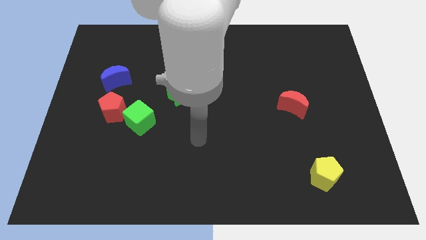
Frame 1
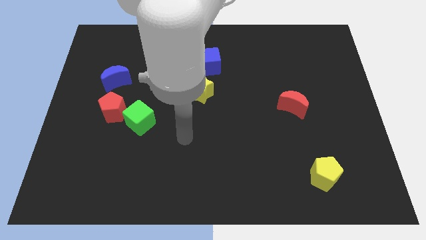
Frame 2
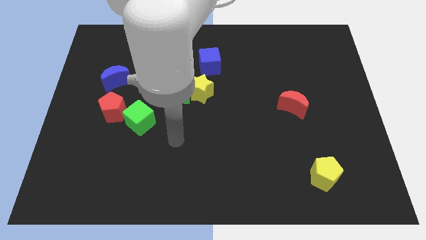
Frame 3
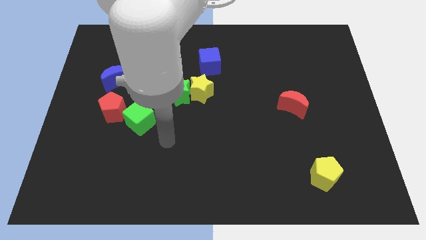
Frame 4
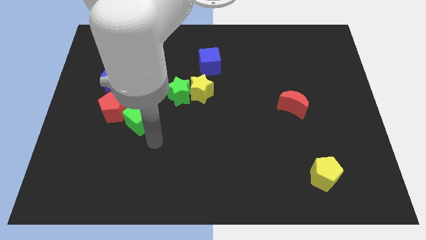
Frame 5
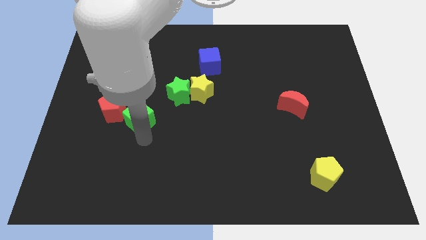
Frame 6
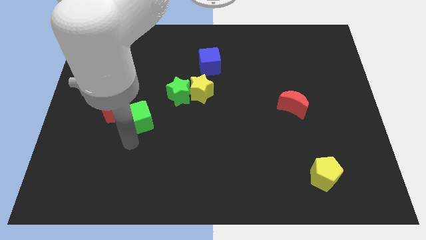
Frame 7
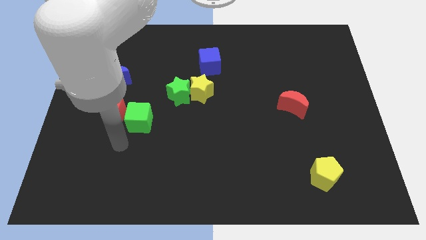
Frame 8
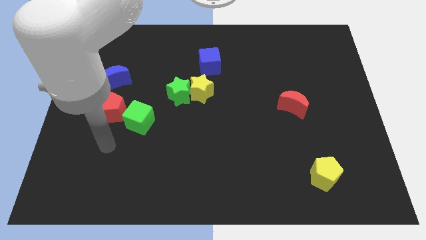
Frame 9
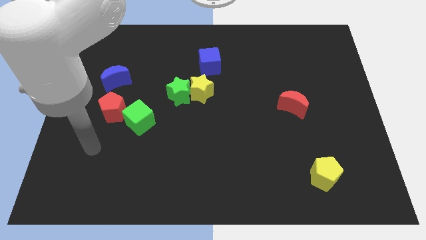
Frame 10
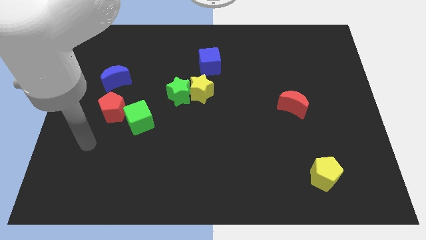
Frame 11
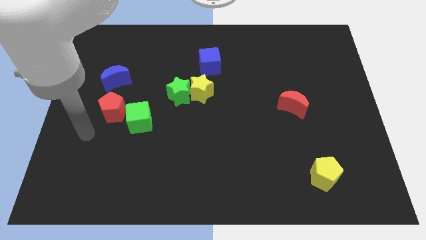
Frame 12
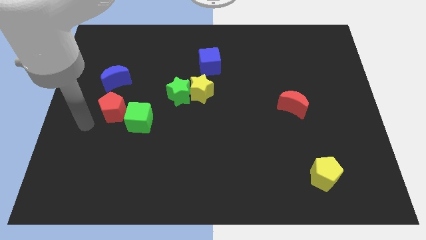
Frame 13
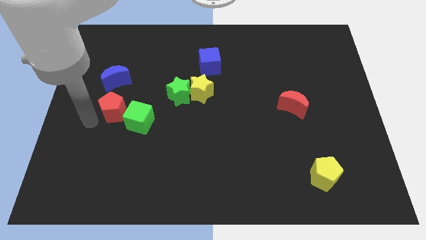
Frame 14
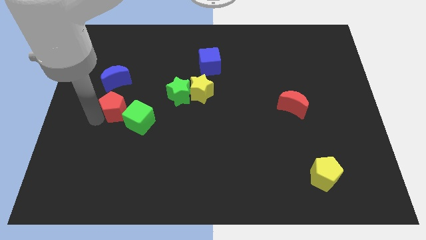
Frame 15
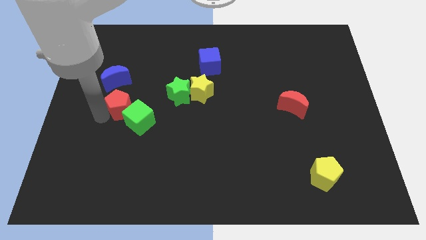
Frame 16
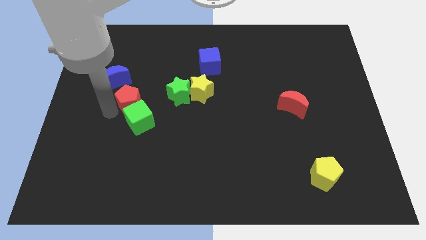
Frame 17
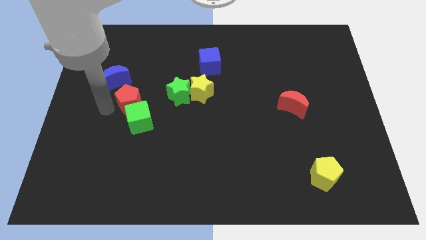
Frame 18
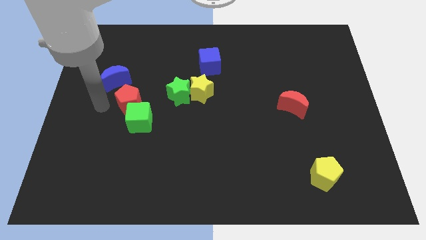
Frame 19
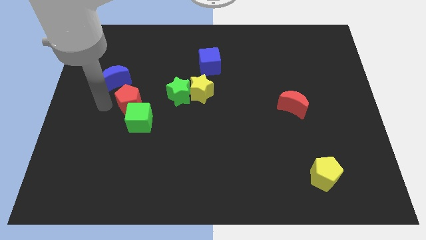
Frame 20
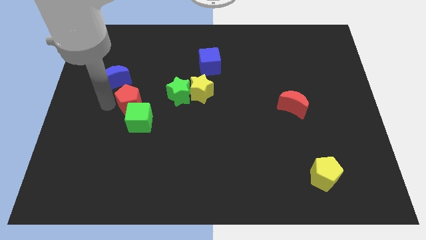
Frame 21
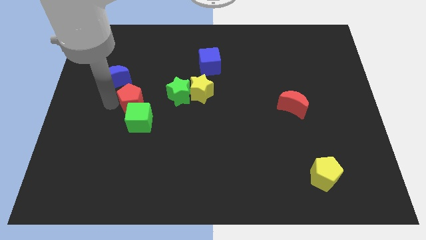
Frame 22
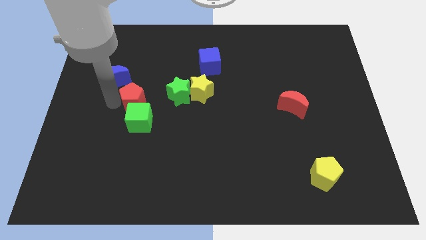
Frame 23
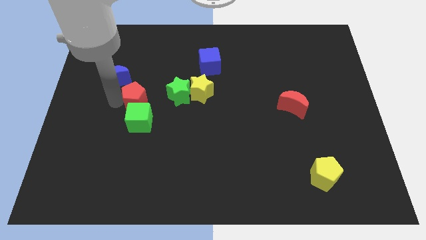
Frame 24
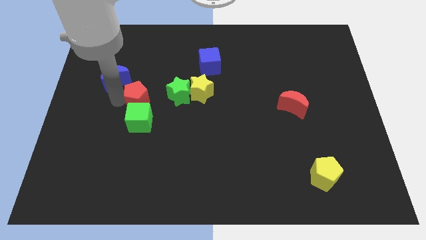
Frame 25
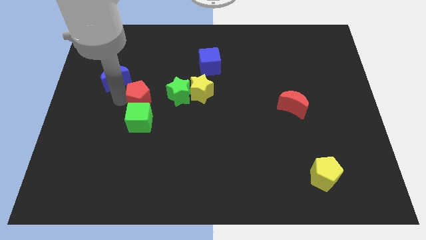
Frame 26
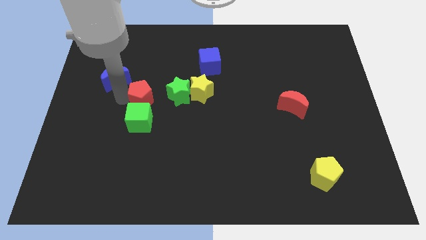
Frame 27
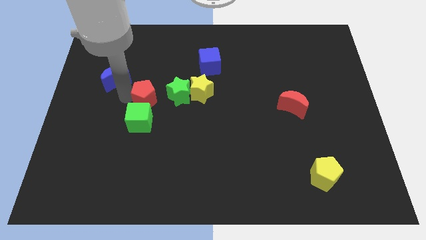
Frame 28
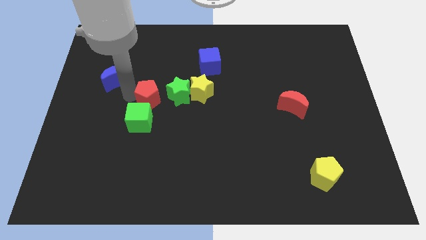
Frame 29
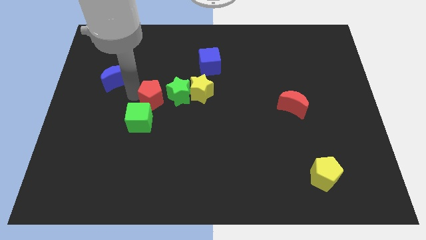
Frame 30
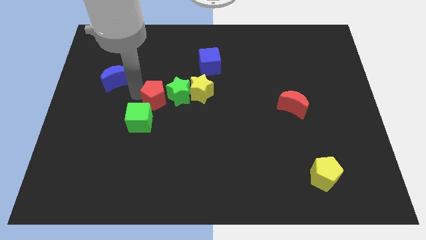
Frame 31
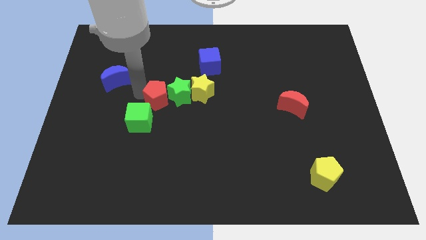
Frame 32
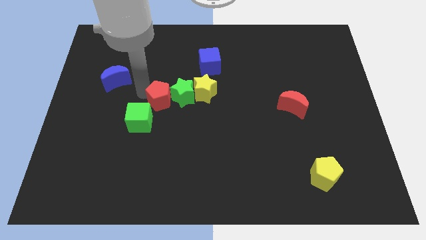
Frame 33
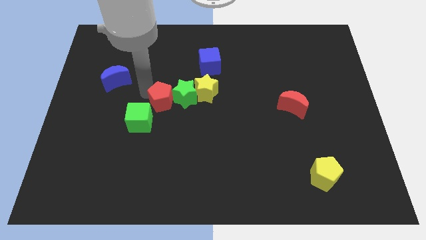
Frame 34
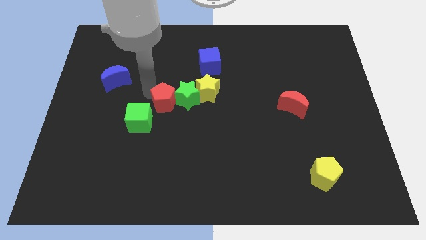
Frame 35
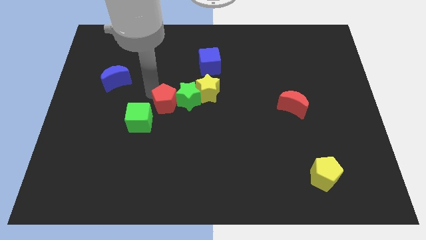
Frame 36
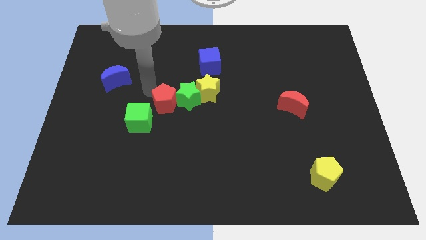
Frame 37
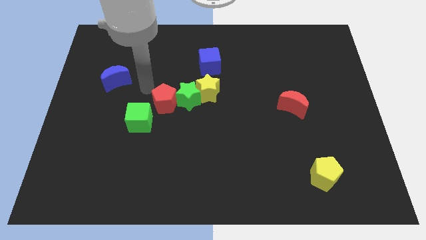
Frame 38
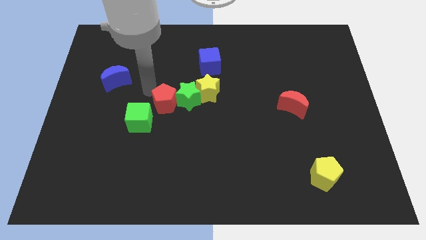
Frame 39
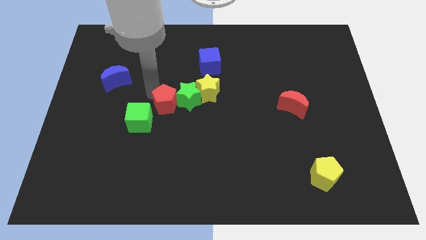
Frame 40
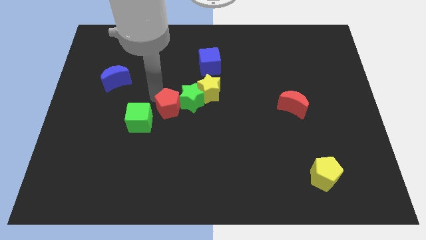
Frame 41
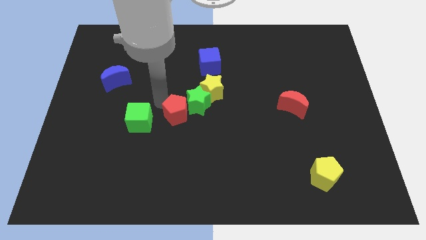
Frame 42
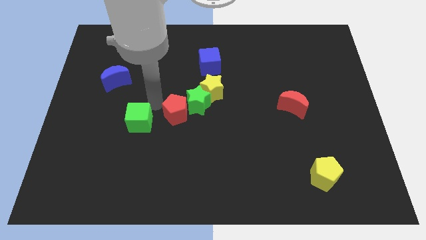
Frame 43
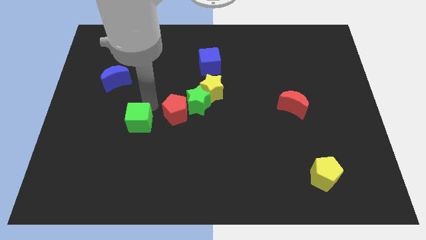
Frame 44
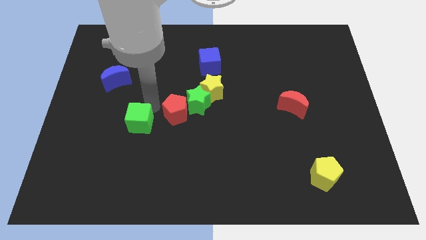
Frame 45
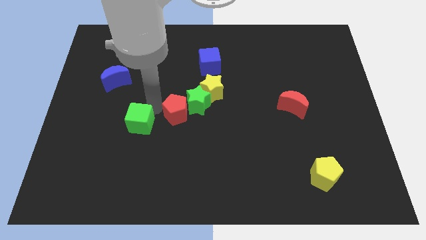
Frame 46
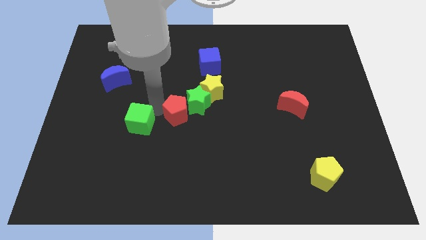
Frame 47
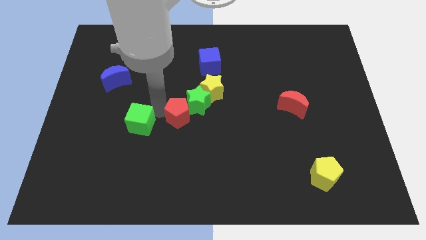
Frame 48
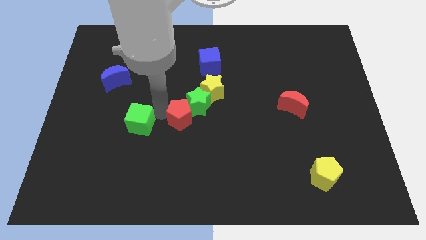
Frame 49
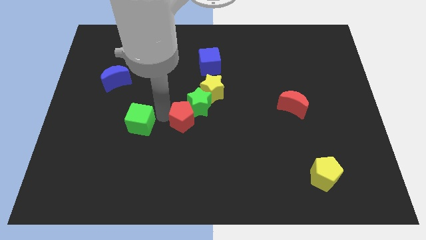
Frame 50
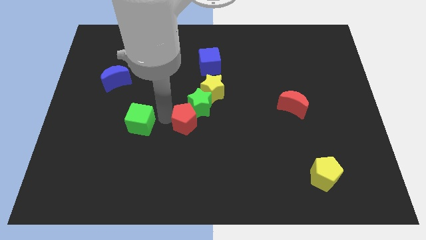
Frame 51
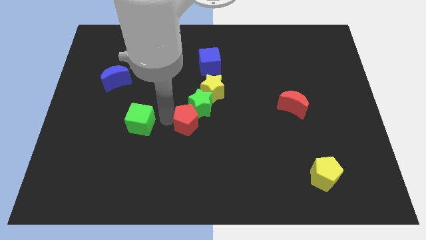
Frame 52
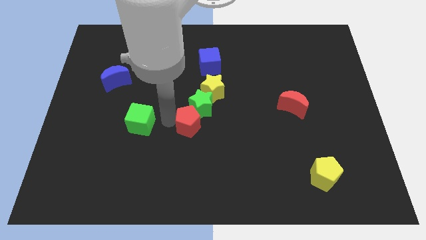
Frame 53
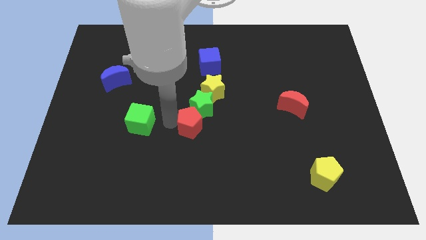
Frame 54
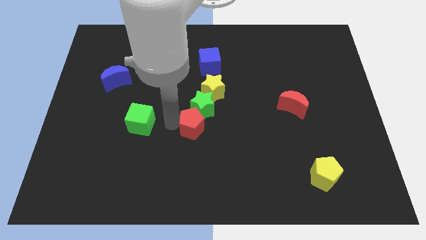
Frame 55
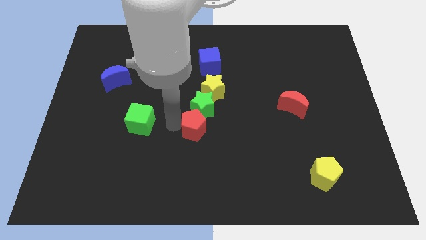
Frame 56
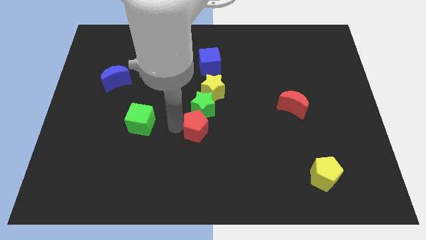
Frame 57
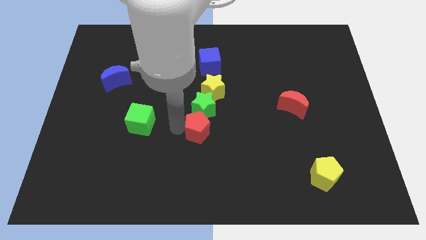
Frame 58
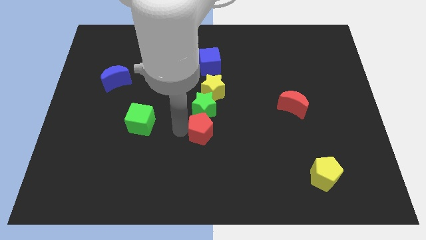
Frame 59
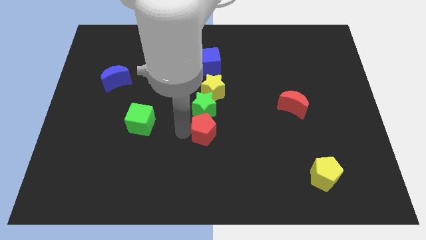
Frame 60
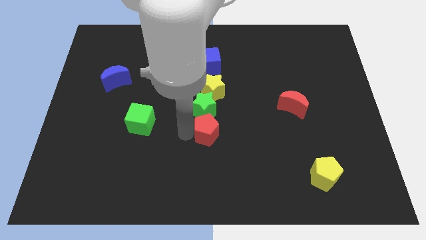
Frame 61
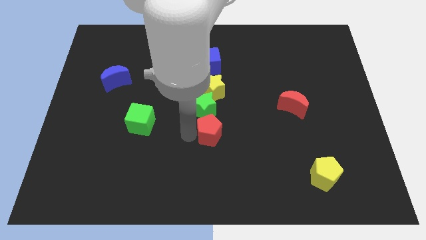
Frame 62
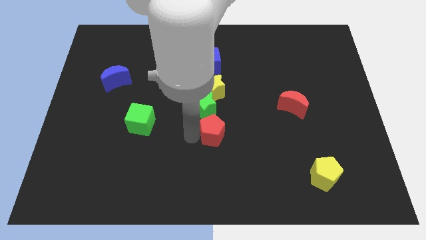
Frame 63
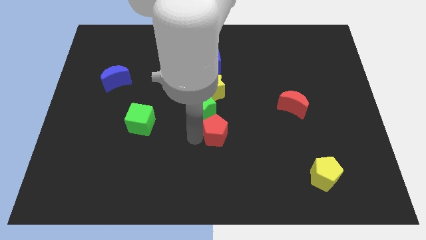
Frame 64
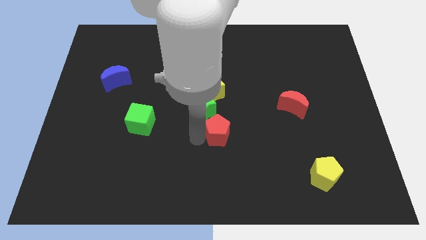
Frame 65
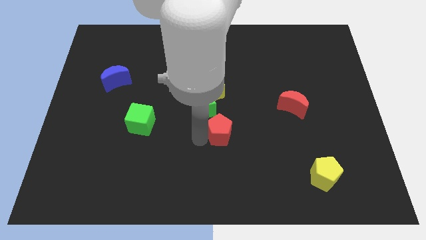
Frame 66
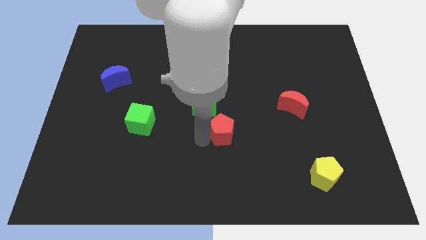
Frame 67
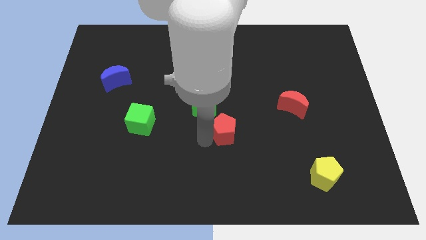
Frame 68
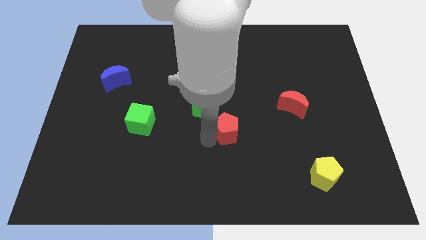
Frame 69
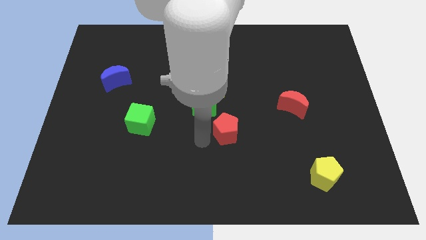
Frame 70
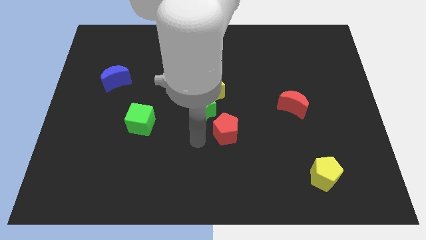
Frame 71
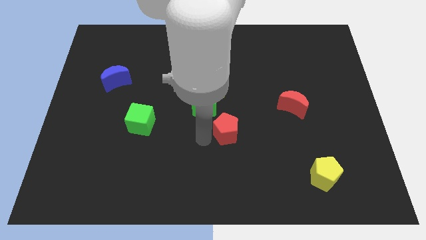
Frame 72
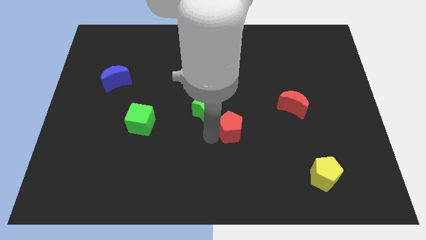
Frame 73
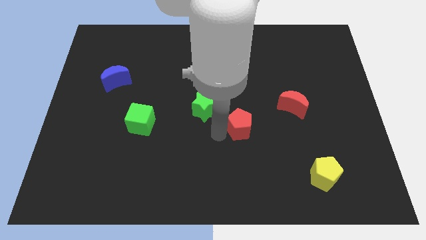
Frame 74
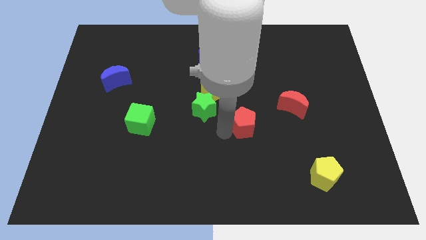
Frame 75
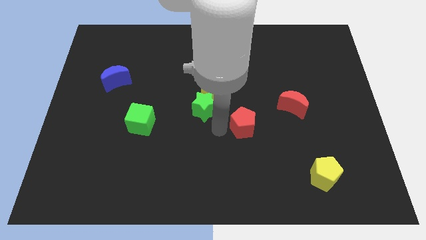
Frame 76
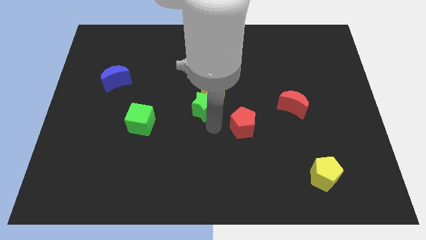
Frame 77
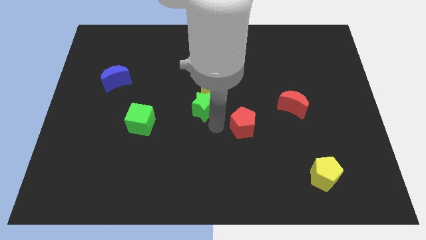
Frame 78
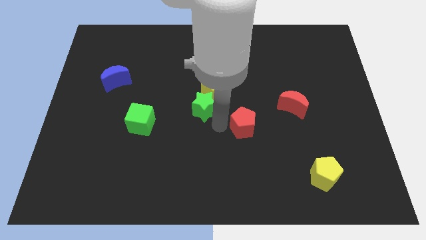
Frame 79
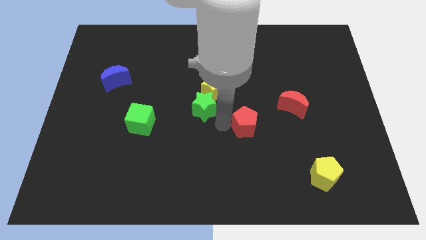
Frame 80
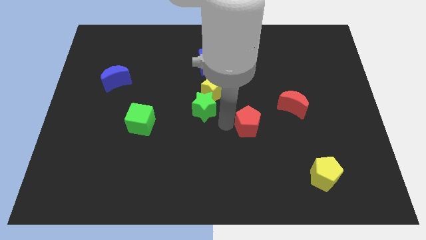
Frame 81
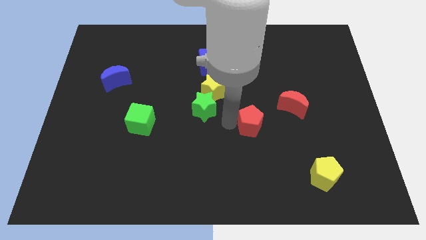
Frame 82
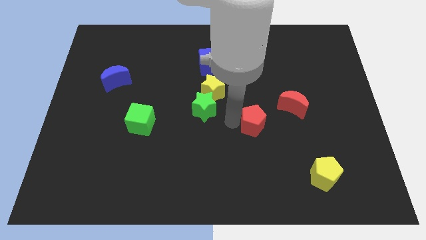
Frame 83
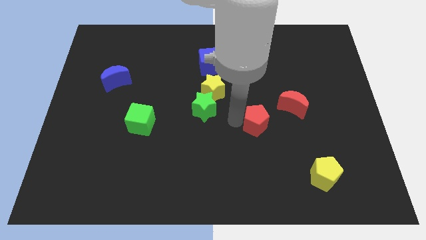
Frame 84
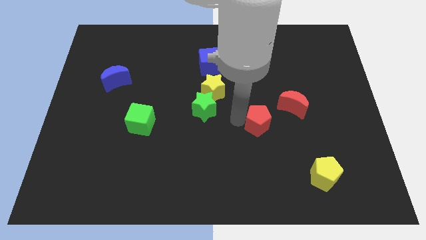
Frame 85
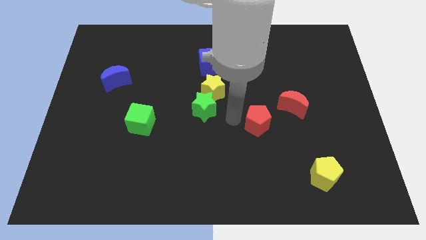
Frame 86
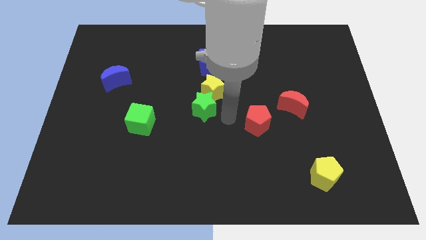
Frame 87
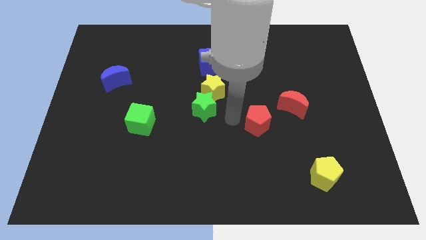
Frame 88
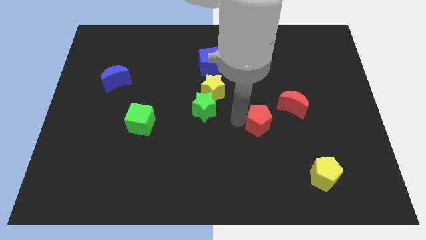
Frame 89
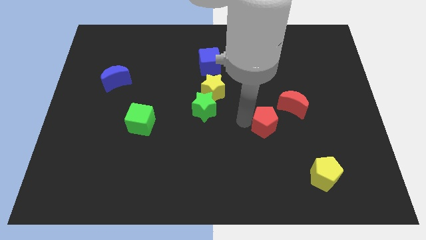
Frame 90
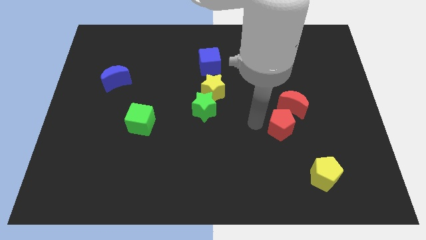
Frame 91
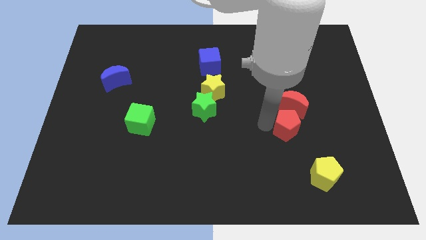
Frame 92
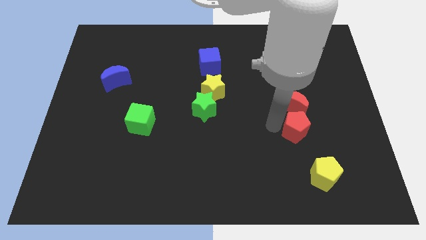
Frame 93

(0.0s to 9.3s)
put the red pentagon to the top of the yellow pentagon
